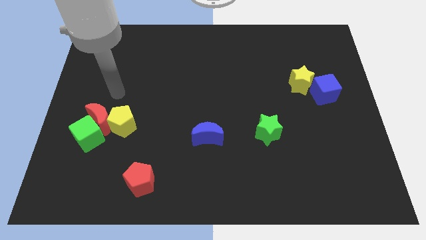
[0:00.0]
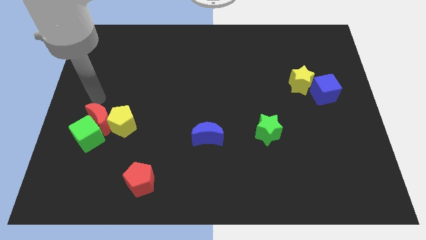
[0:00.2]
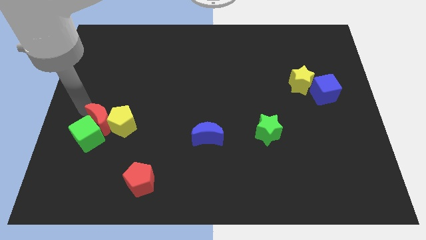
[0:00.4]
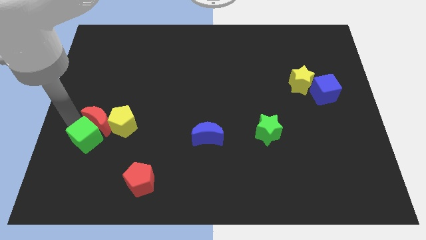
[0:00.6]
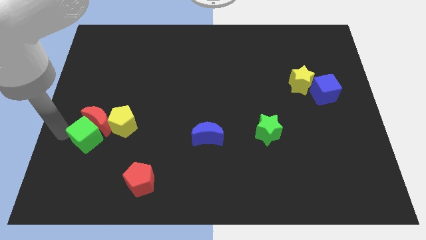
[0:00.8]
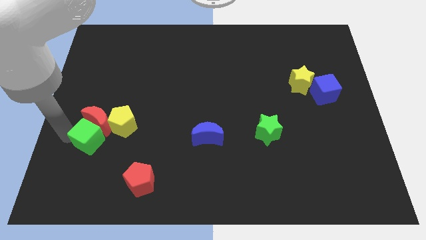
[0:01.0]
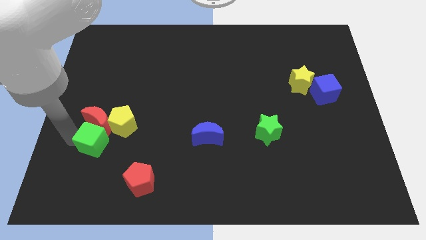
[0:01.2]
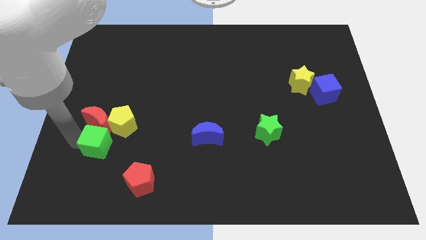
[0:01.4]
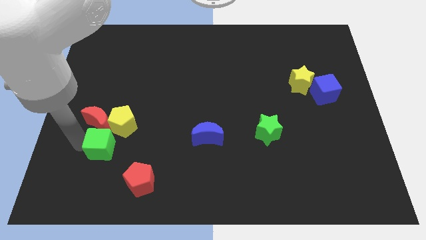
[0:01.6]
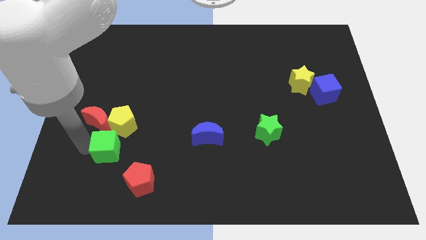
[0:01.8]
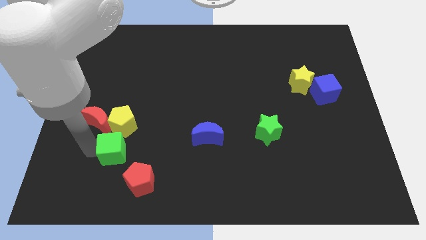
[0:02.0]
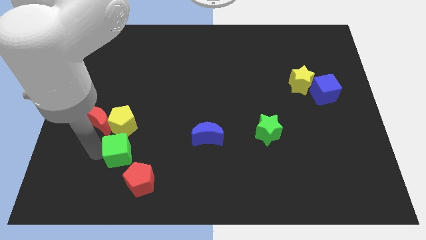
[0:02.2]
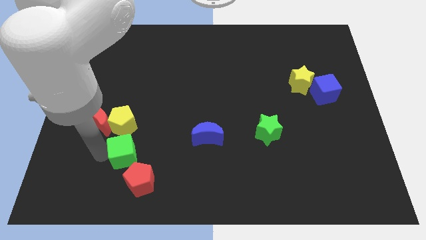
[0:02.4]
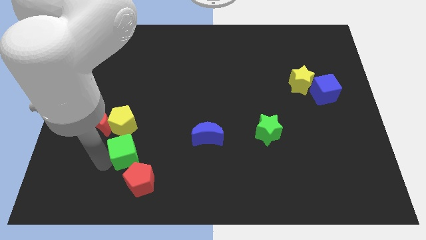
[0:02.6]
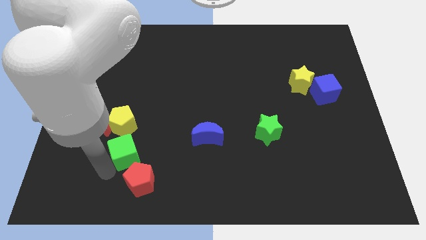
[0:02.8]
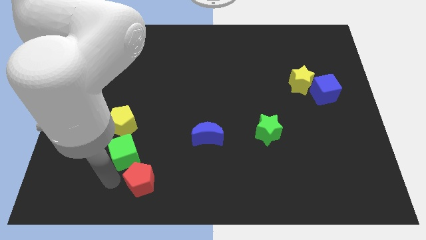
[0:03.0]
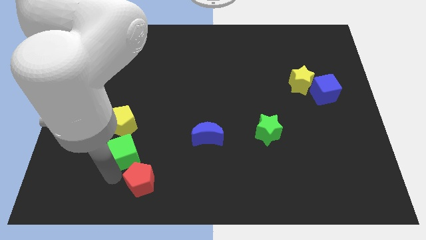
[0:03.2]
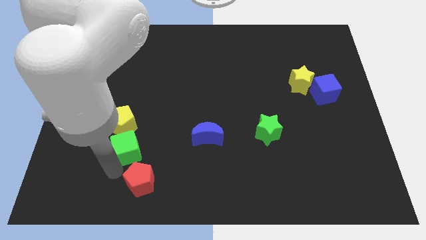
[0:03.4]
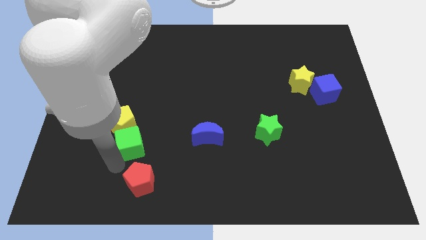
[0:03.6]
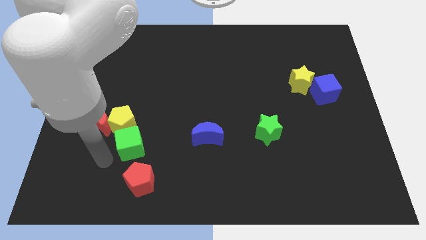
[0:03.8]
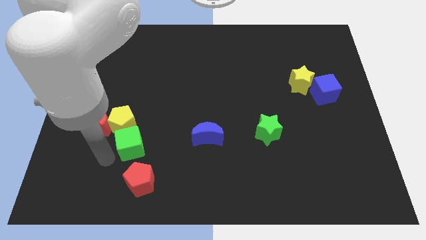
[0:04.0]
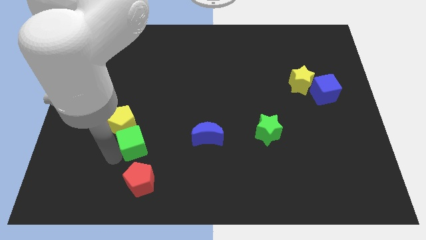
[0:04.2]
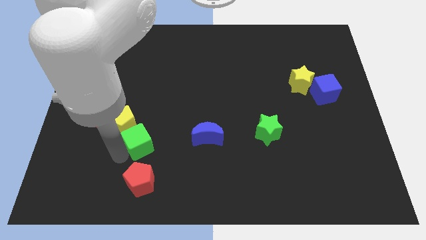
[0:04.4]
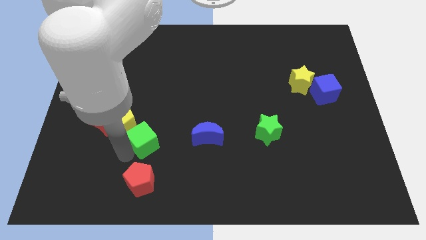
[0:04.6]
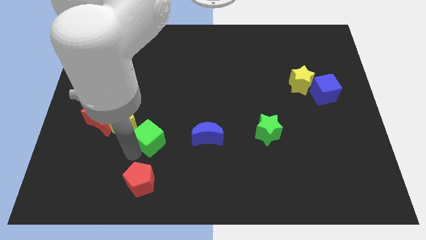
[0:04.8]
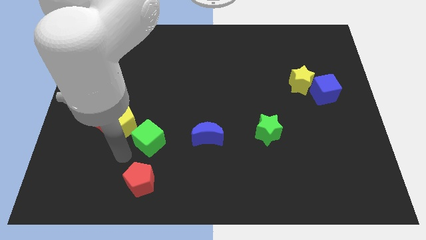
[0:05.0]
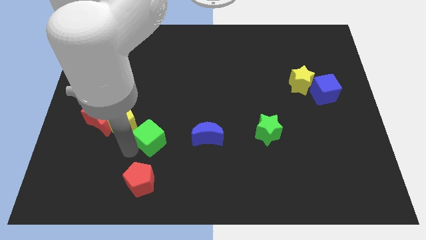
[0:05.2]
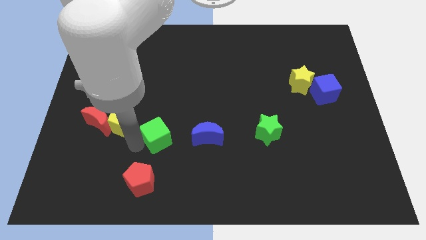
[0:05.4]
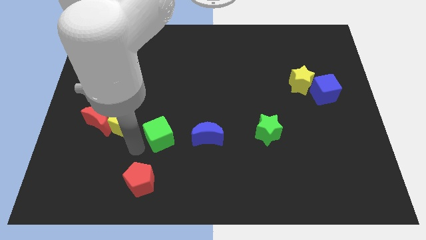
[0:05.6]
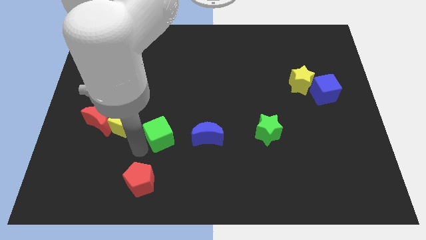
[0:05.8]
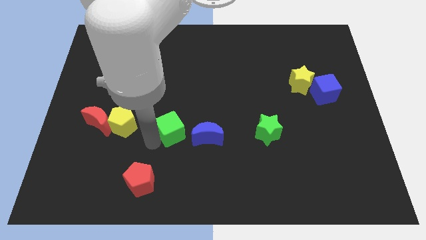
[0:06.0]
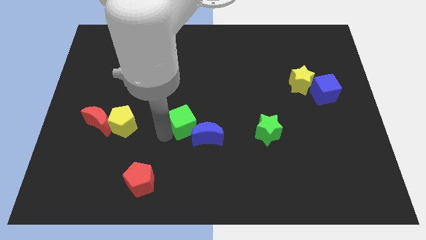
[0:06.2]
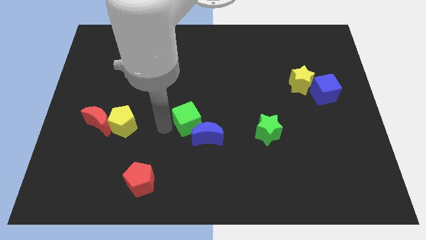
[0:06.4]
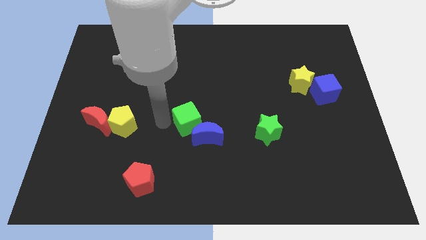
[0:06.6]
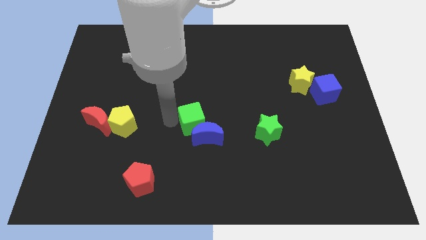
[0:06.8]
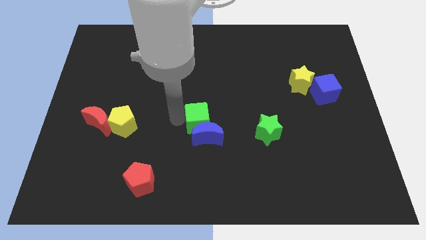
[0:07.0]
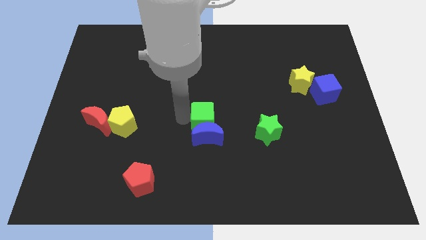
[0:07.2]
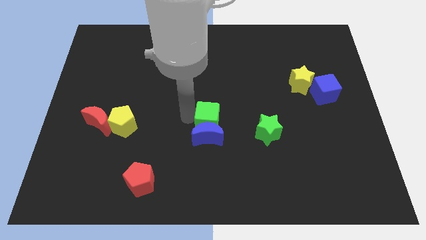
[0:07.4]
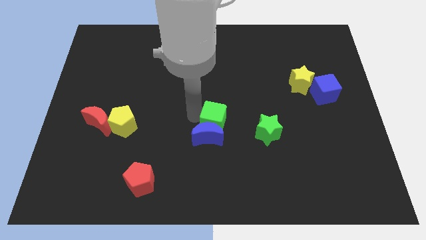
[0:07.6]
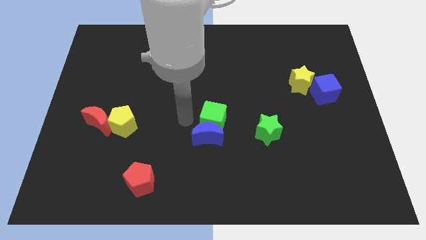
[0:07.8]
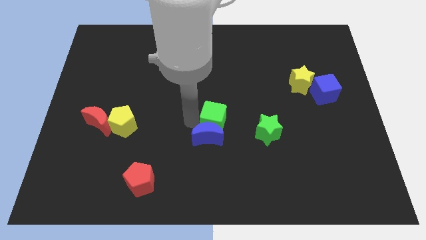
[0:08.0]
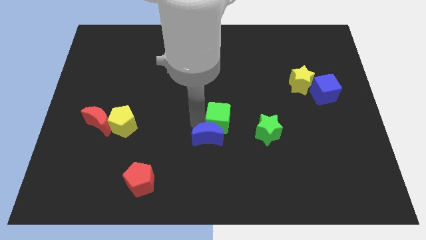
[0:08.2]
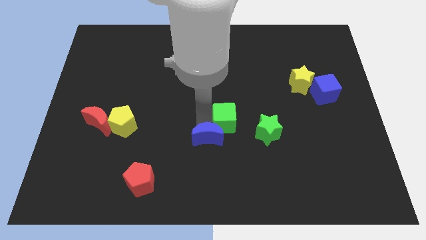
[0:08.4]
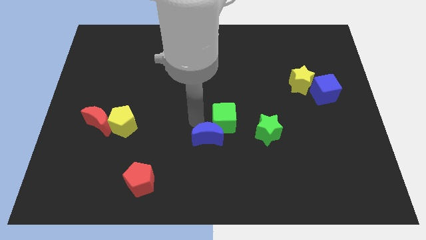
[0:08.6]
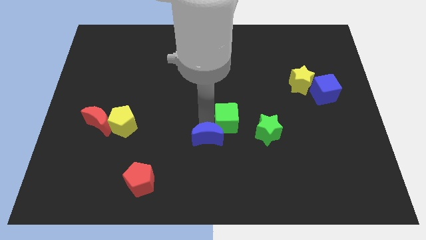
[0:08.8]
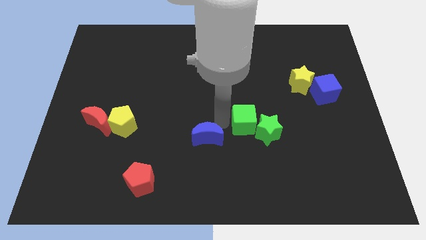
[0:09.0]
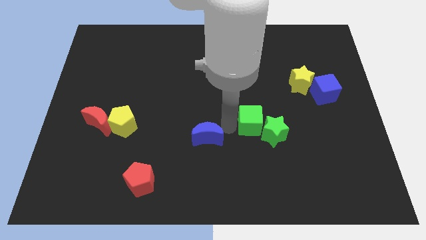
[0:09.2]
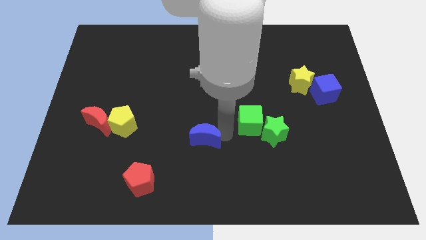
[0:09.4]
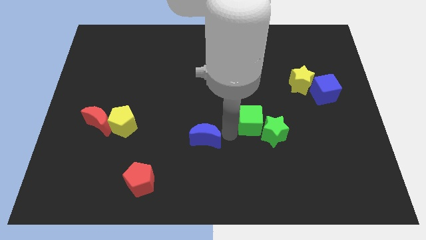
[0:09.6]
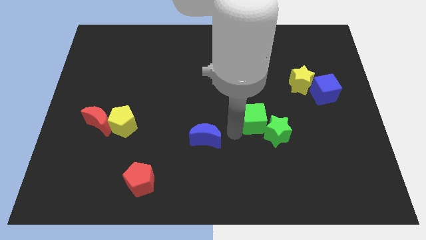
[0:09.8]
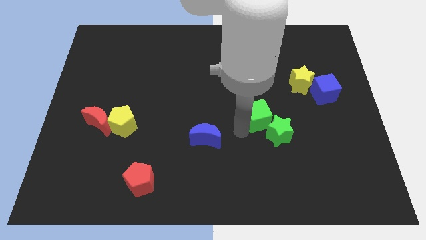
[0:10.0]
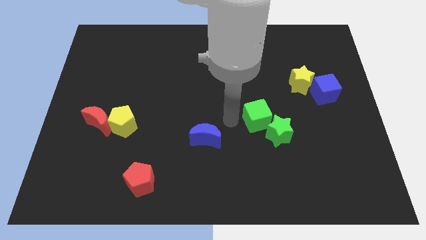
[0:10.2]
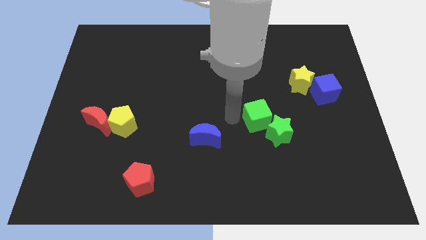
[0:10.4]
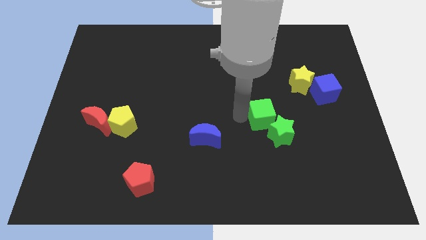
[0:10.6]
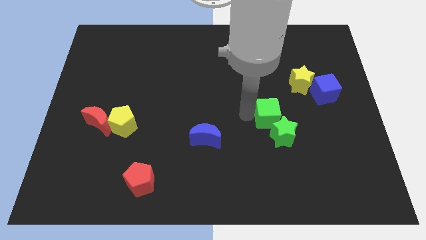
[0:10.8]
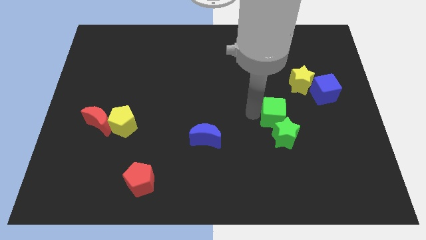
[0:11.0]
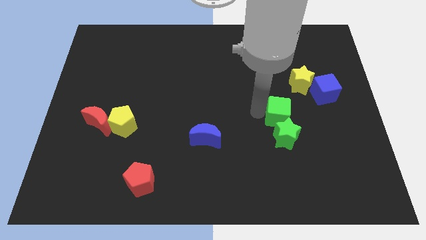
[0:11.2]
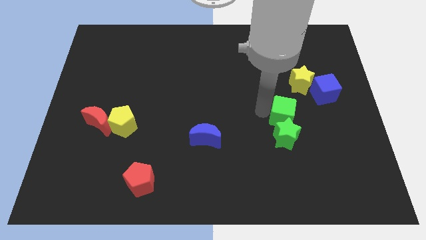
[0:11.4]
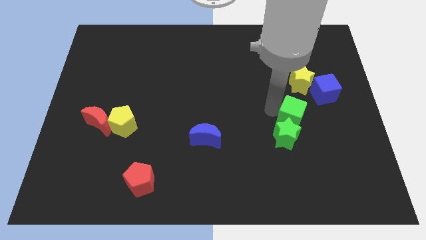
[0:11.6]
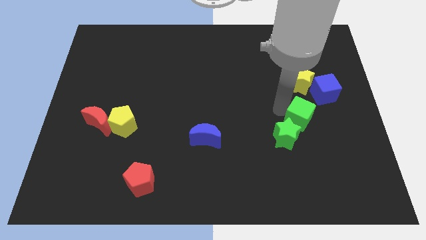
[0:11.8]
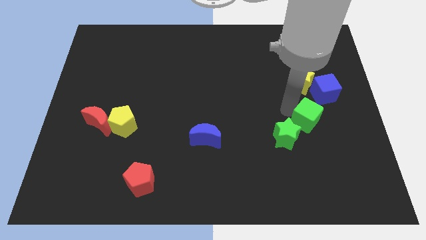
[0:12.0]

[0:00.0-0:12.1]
move the green cube just right of the green star
